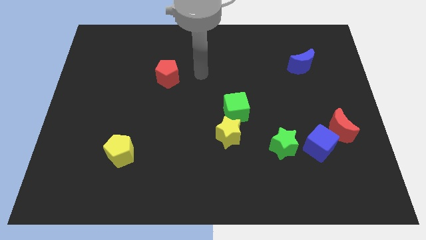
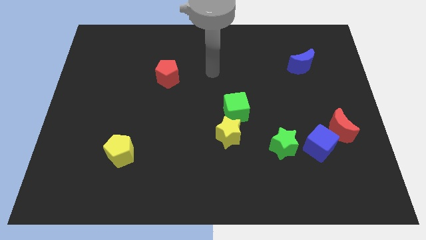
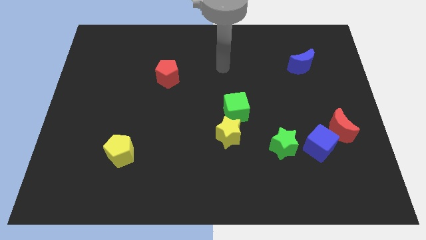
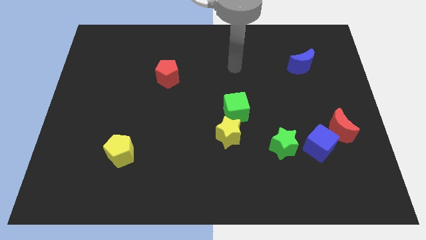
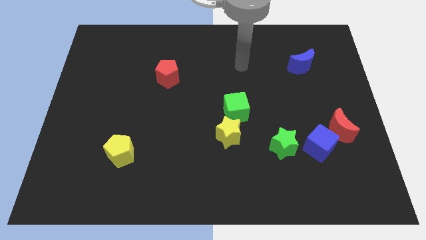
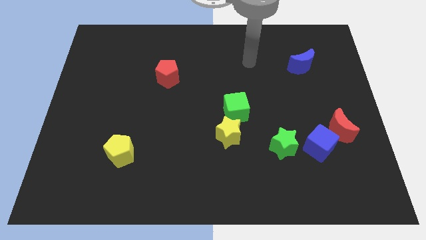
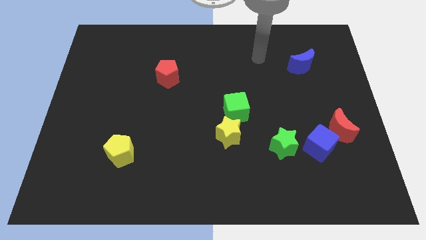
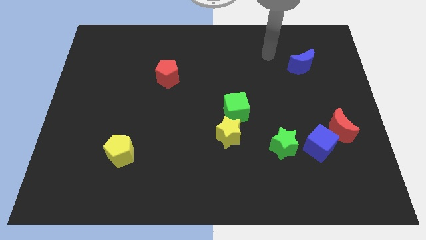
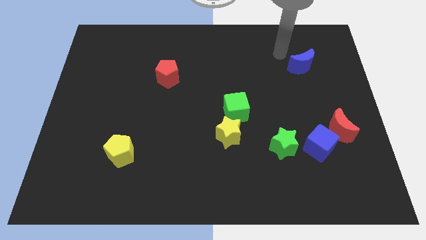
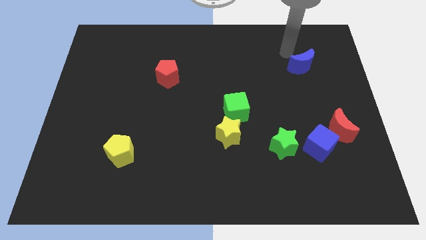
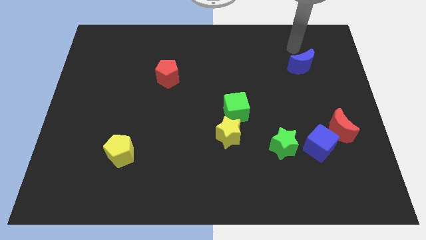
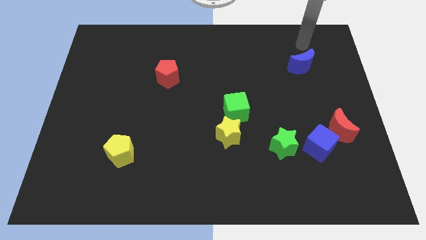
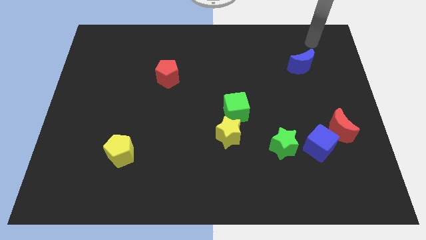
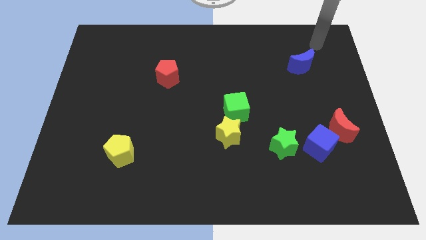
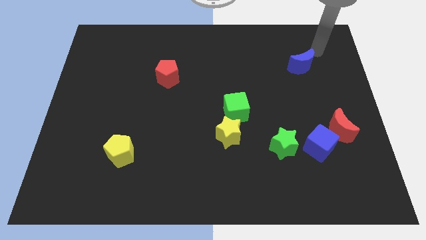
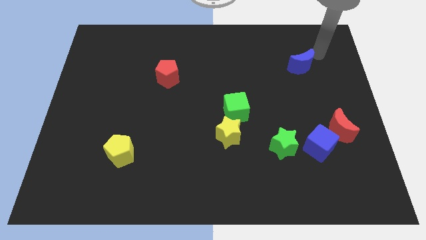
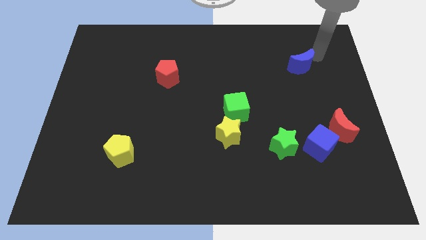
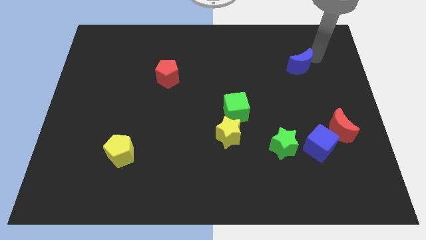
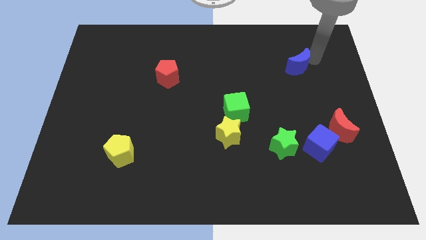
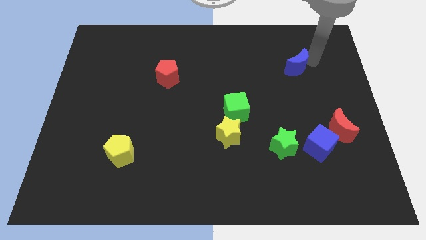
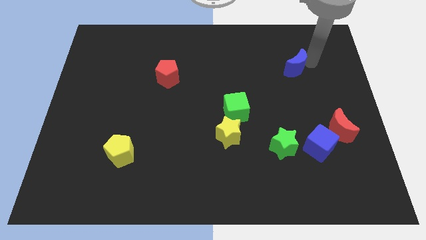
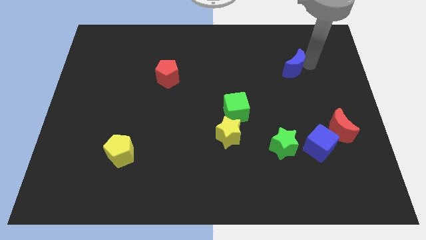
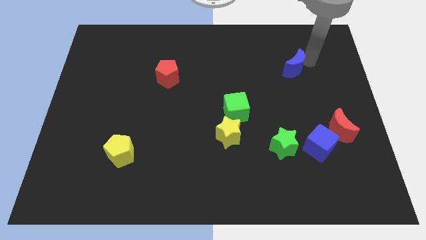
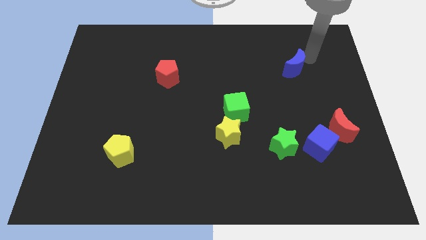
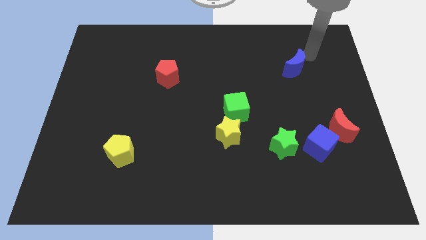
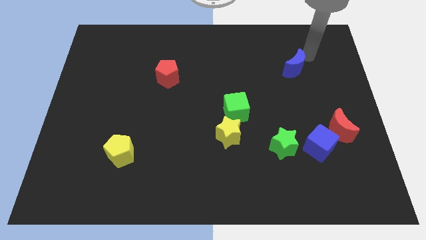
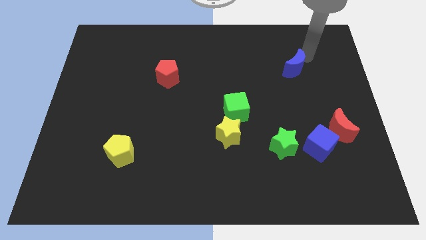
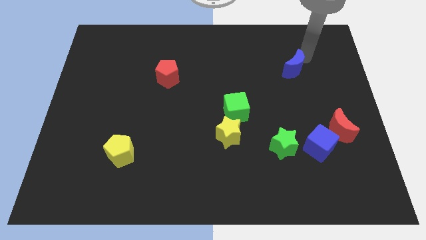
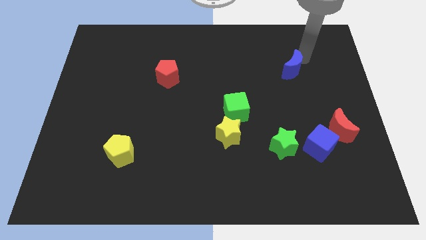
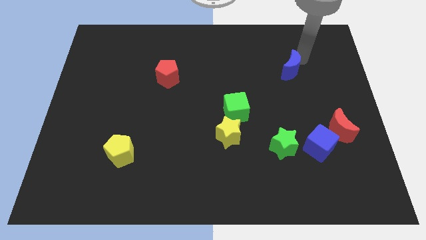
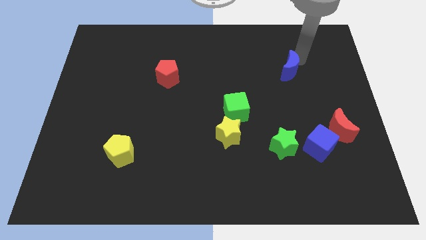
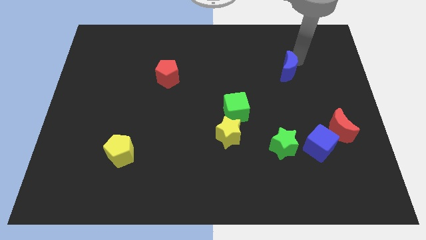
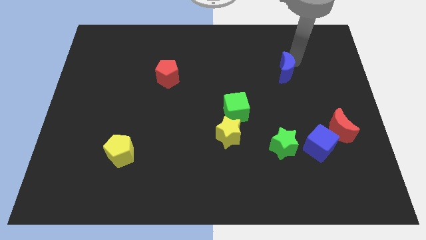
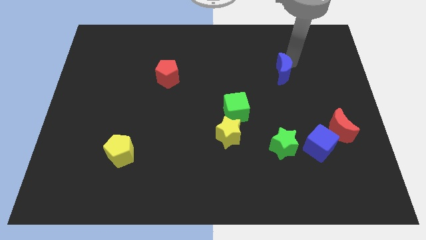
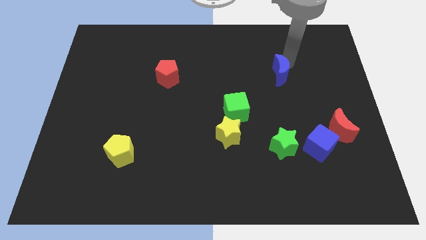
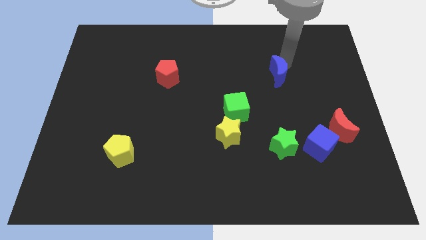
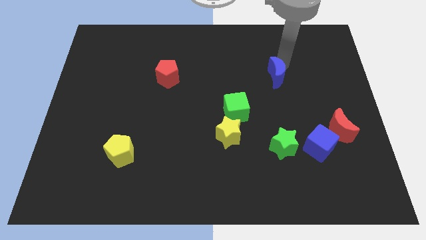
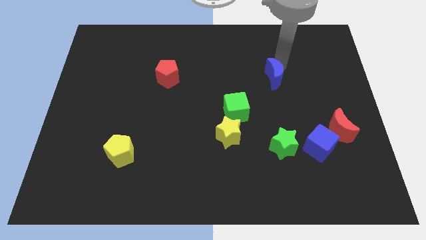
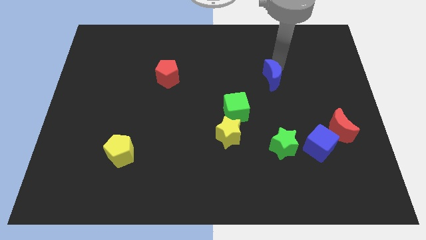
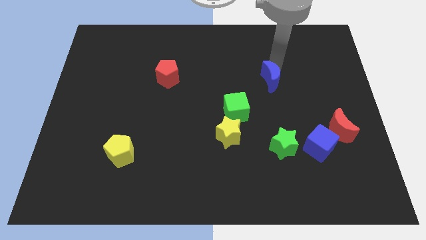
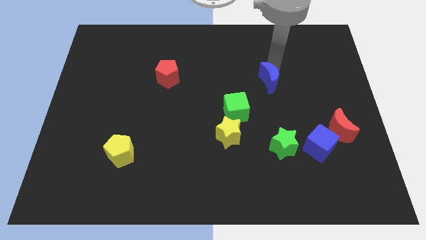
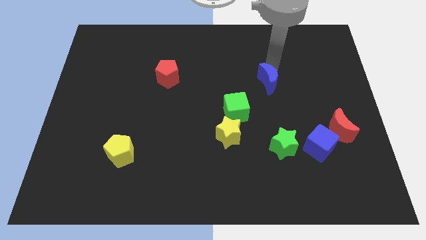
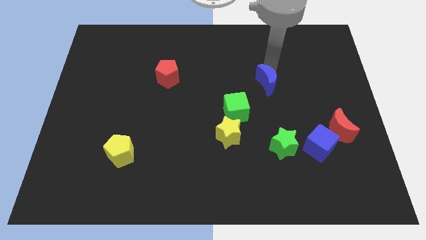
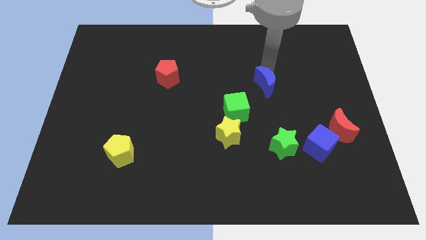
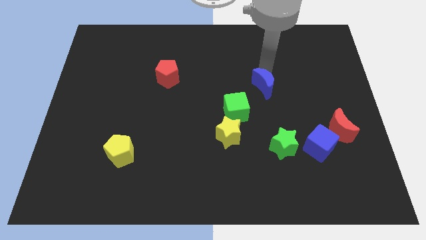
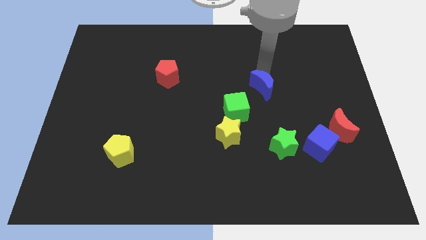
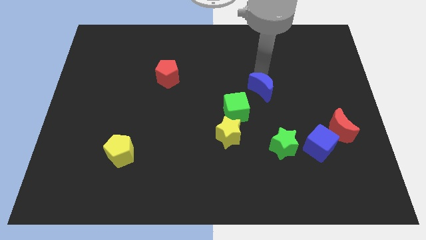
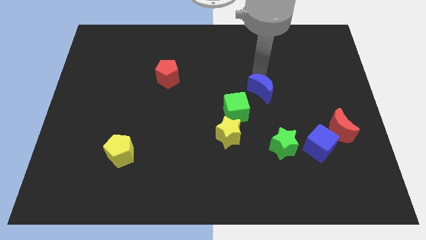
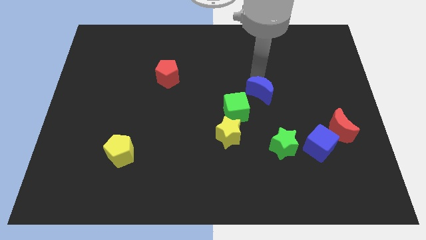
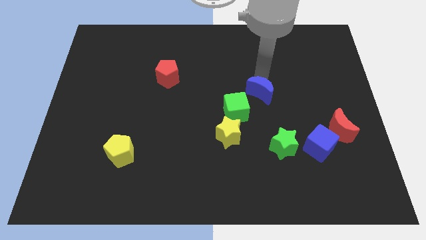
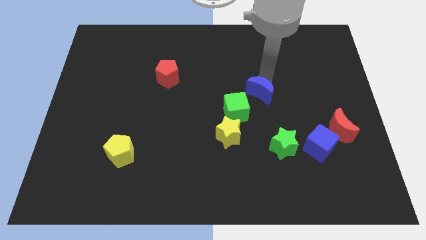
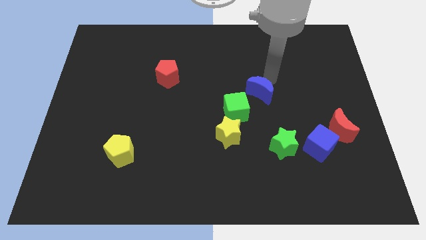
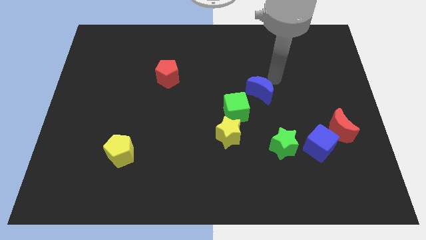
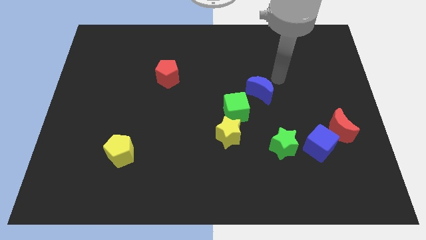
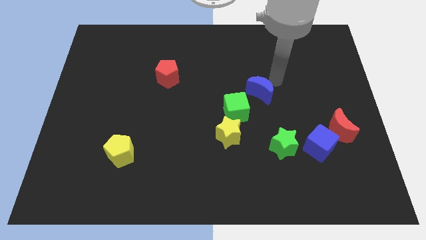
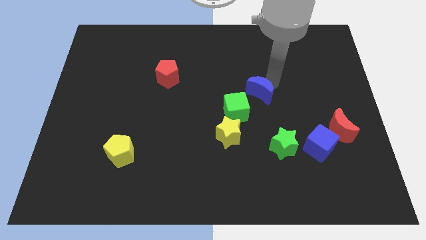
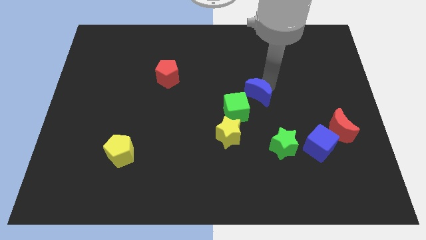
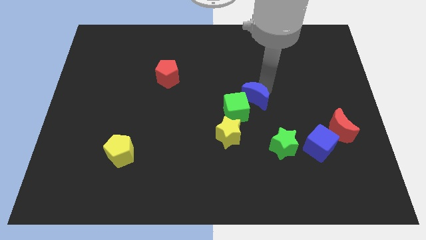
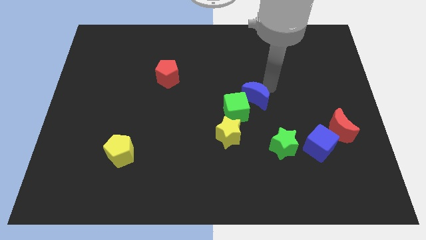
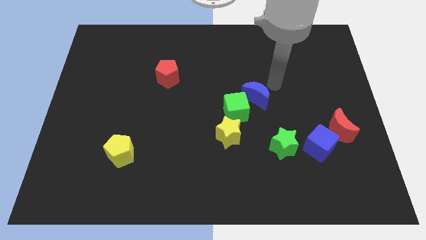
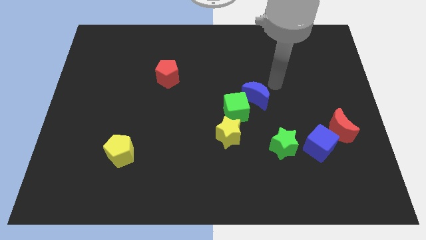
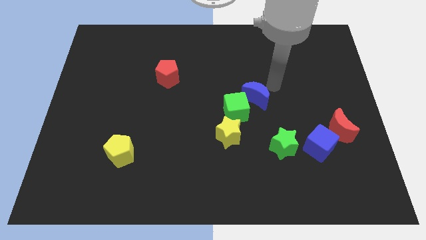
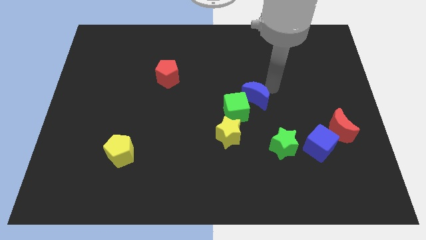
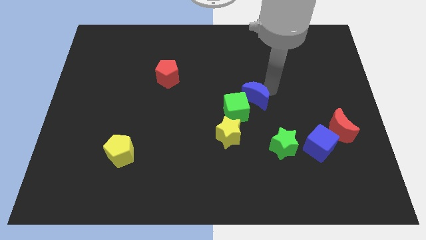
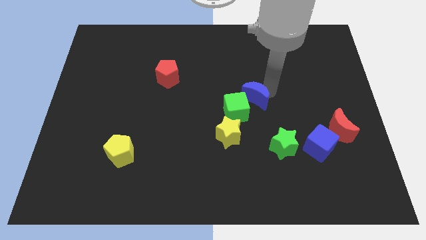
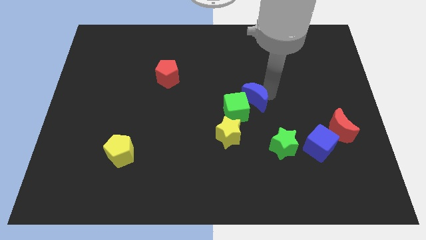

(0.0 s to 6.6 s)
move the blue moon next to the green cube
